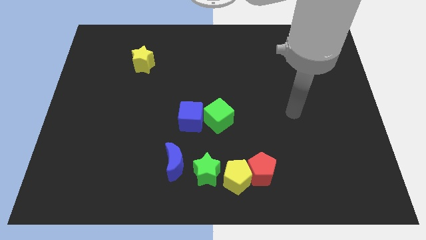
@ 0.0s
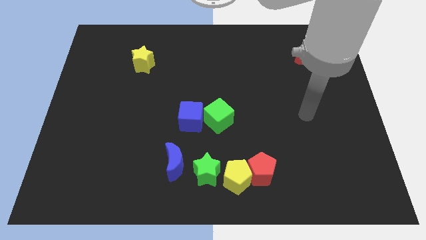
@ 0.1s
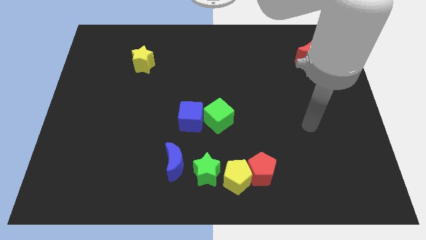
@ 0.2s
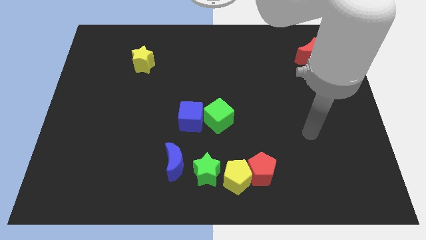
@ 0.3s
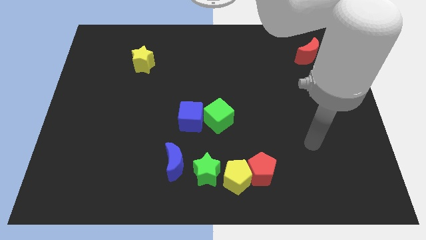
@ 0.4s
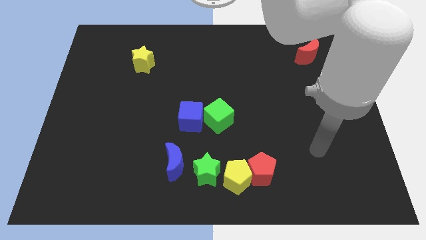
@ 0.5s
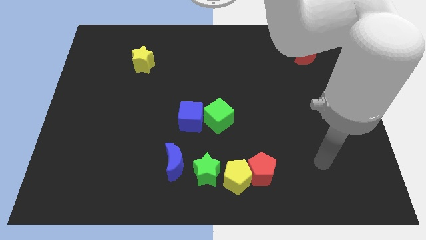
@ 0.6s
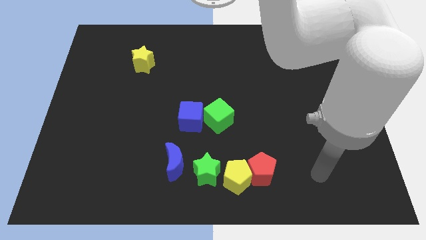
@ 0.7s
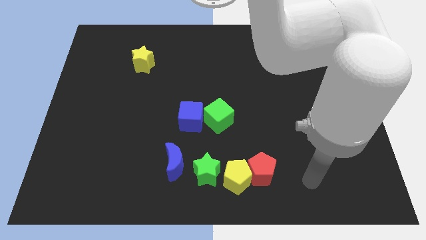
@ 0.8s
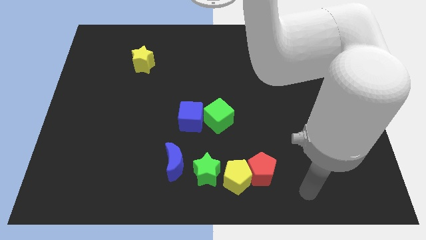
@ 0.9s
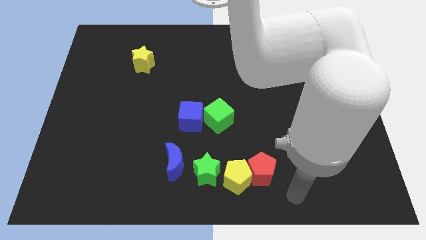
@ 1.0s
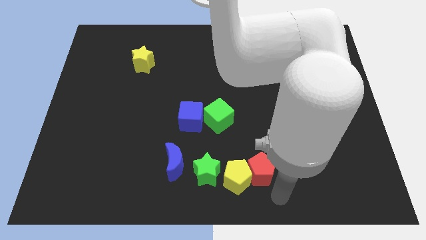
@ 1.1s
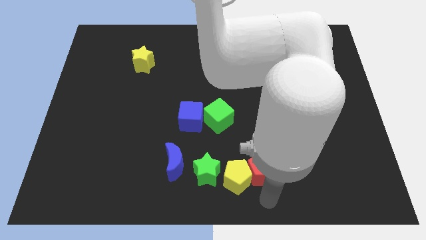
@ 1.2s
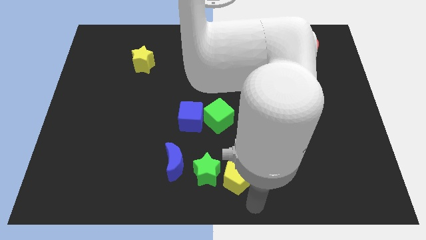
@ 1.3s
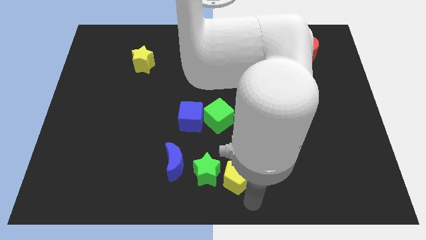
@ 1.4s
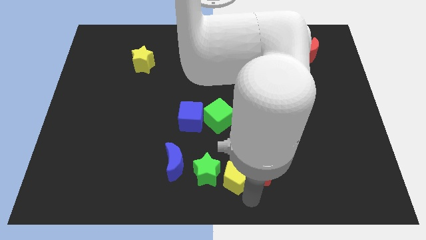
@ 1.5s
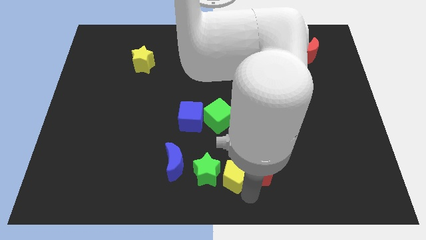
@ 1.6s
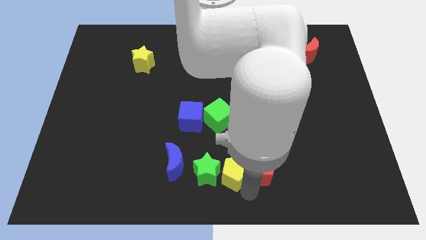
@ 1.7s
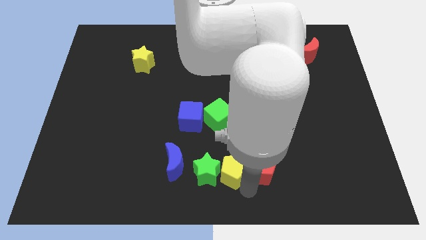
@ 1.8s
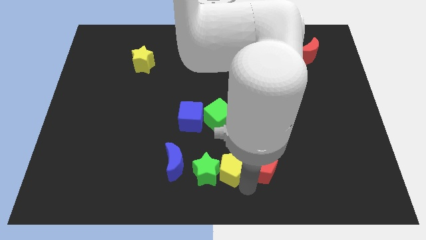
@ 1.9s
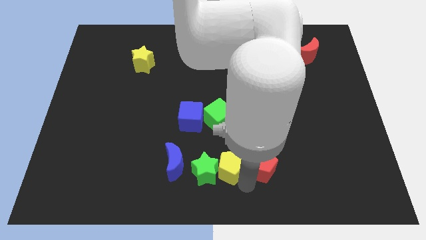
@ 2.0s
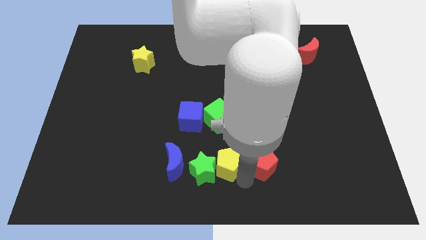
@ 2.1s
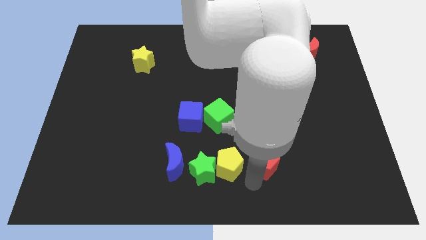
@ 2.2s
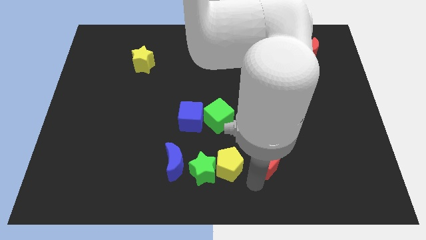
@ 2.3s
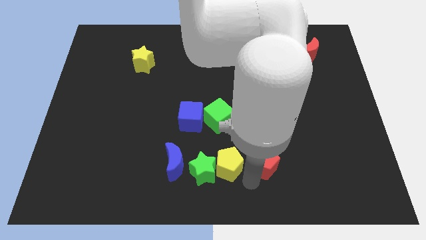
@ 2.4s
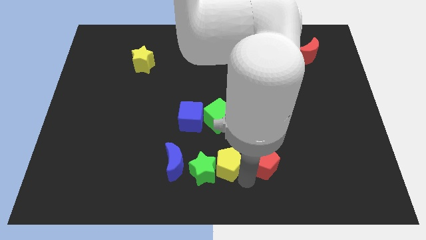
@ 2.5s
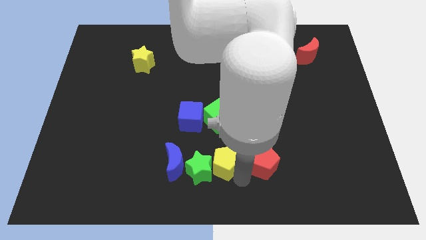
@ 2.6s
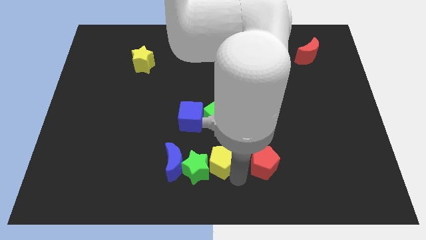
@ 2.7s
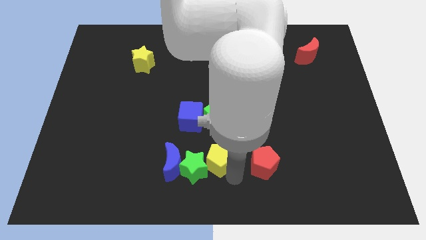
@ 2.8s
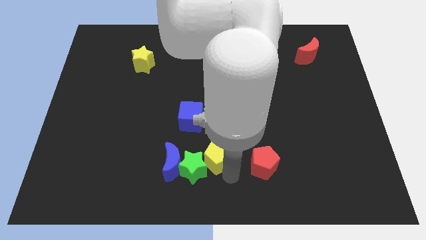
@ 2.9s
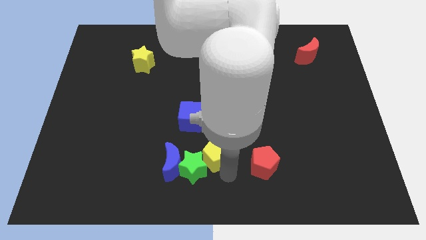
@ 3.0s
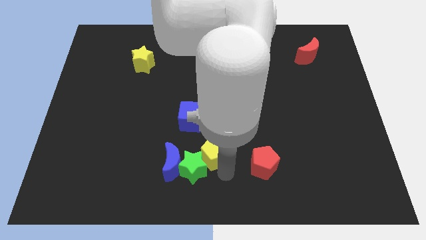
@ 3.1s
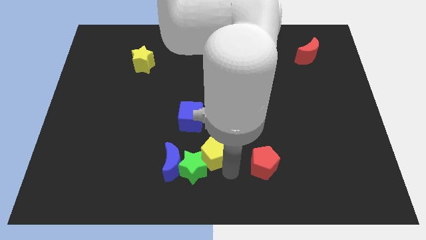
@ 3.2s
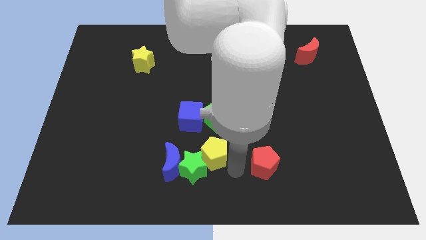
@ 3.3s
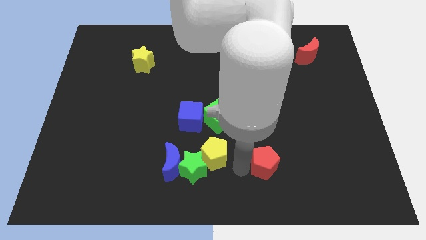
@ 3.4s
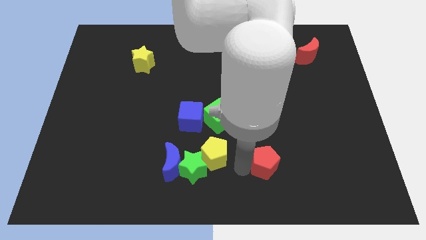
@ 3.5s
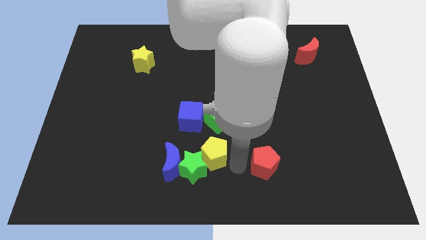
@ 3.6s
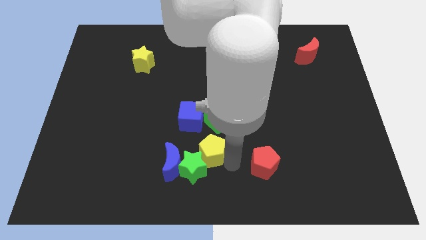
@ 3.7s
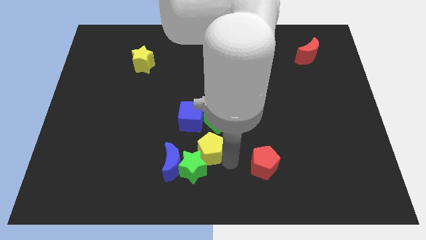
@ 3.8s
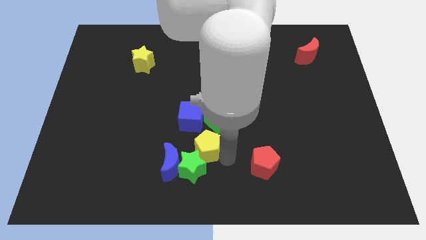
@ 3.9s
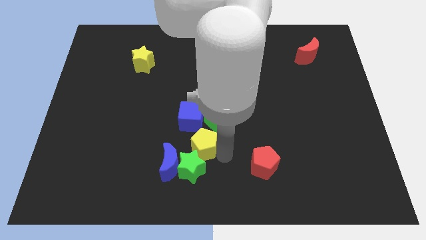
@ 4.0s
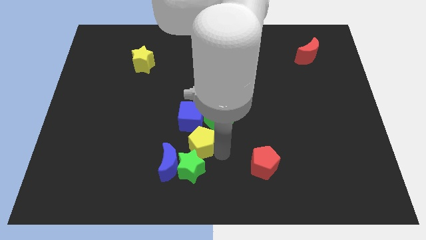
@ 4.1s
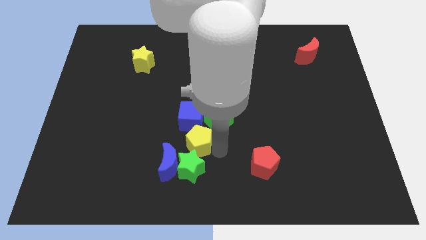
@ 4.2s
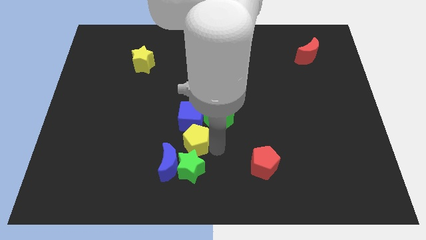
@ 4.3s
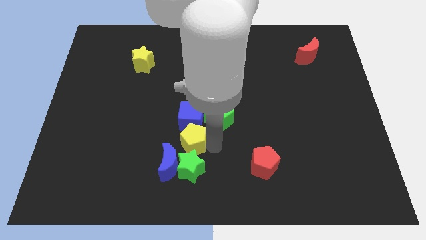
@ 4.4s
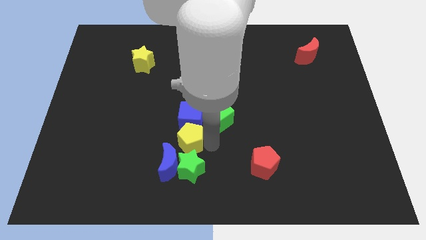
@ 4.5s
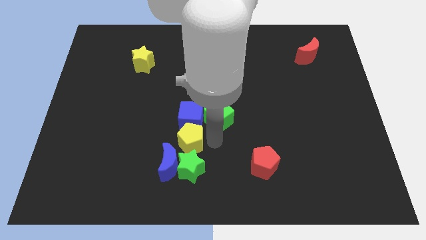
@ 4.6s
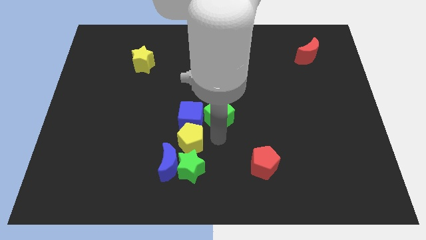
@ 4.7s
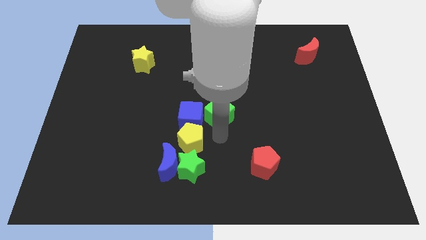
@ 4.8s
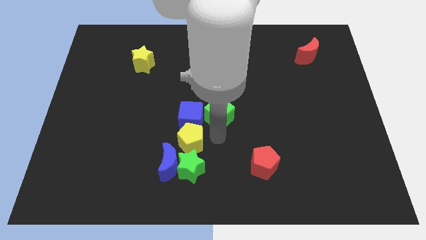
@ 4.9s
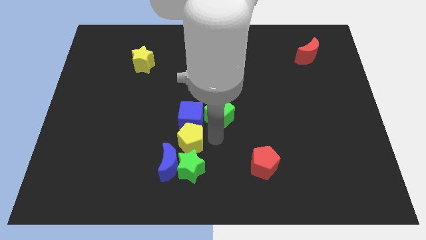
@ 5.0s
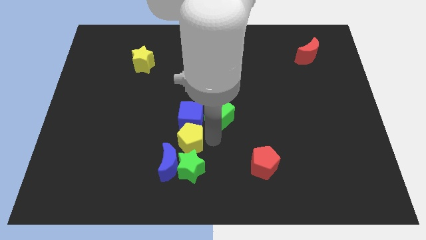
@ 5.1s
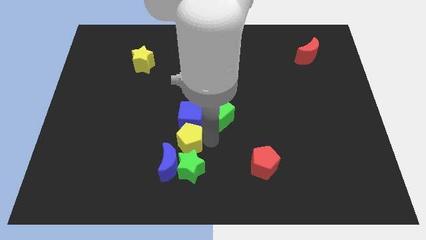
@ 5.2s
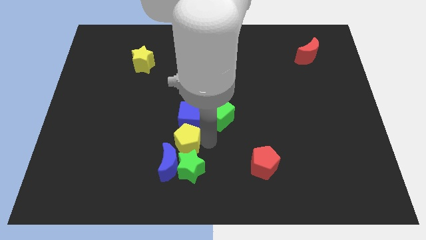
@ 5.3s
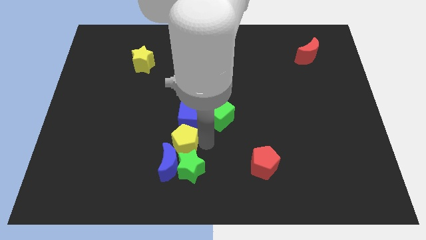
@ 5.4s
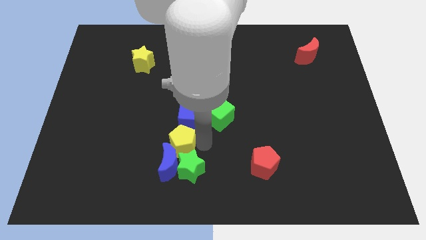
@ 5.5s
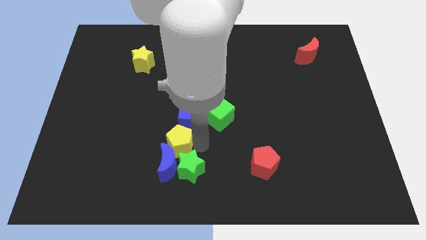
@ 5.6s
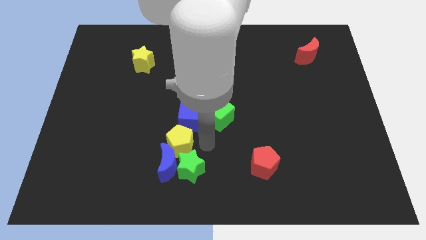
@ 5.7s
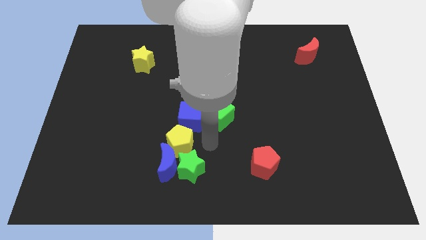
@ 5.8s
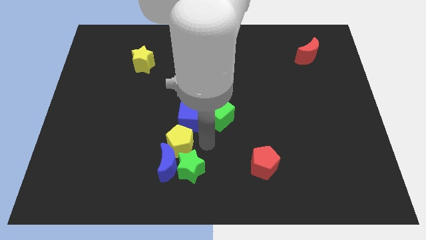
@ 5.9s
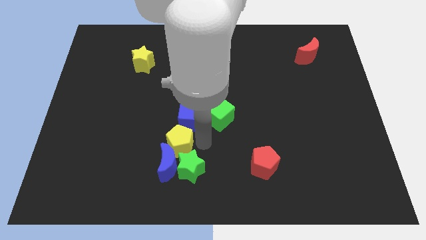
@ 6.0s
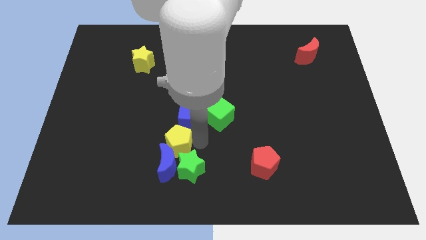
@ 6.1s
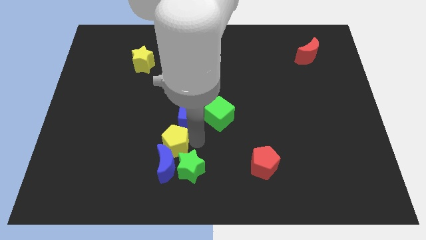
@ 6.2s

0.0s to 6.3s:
move the yellow pentagon to the top left of the blue moon
